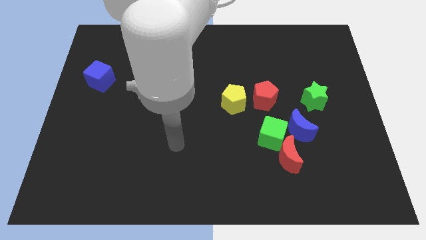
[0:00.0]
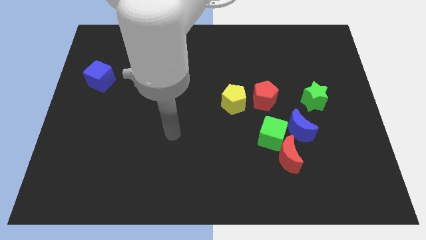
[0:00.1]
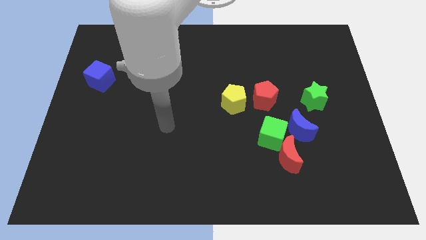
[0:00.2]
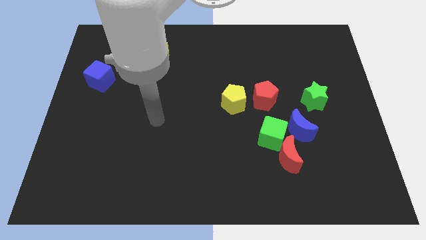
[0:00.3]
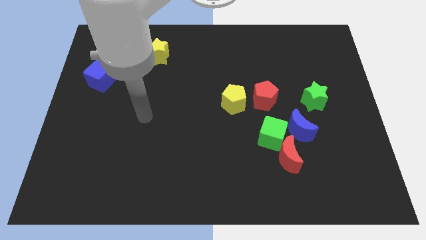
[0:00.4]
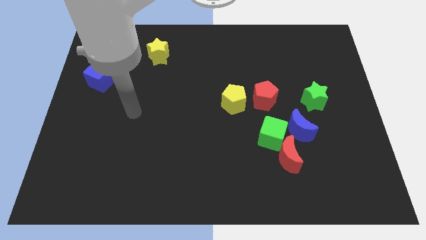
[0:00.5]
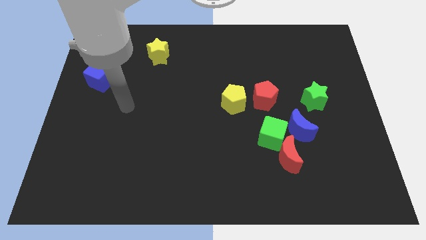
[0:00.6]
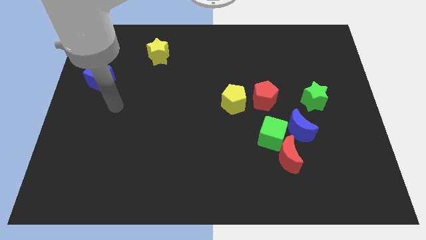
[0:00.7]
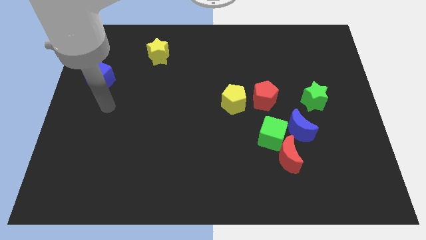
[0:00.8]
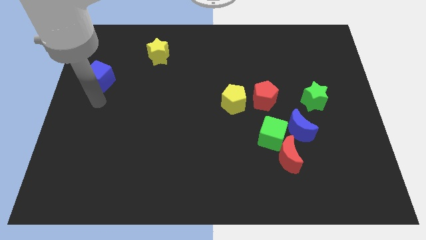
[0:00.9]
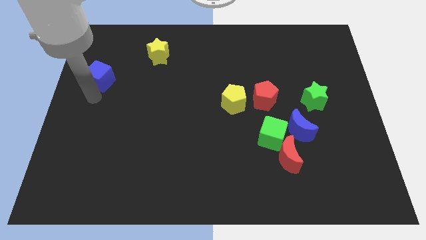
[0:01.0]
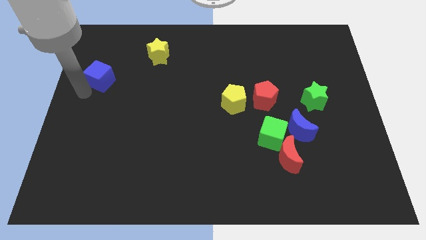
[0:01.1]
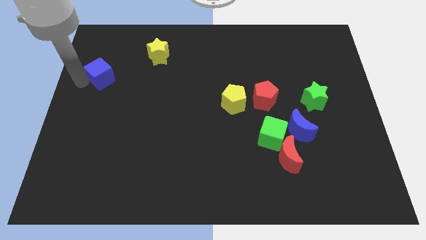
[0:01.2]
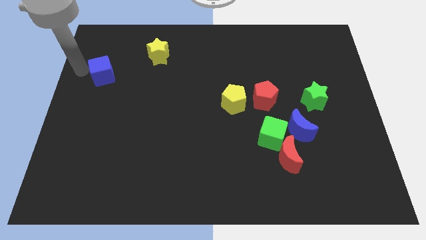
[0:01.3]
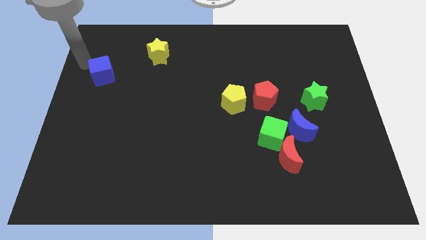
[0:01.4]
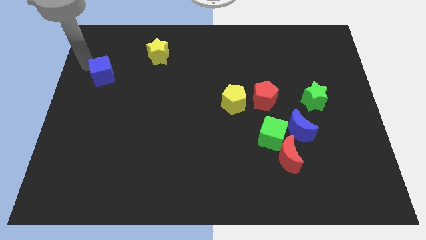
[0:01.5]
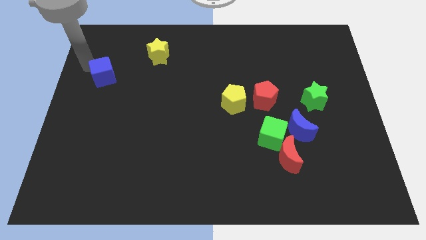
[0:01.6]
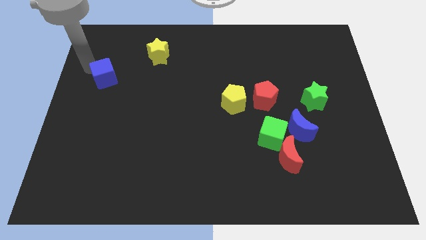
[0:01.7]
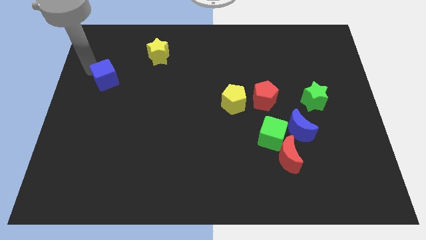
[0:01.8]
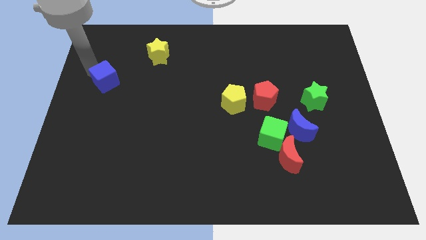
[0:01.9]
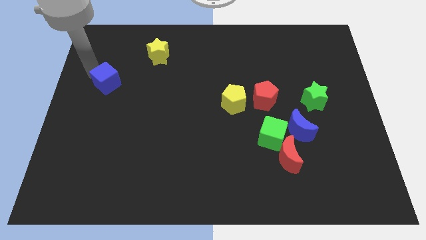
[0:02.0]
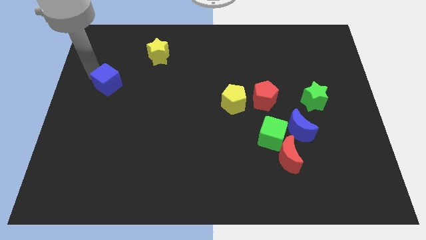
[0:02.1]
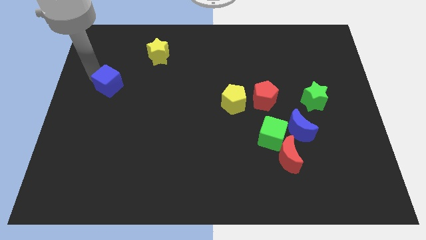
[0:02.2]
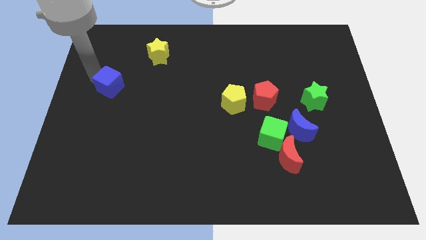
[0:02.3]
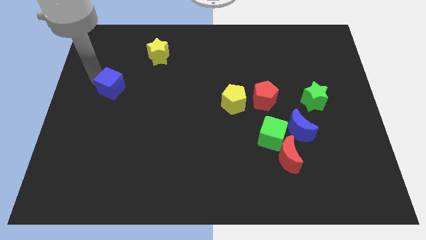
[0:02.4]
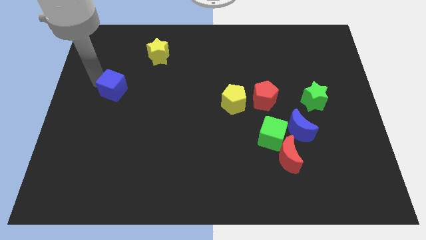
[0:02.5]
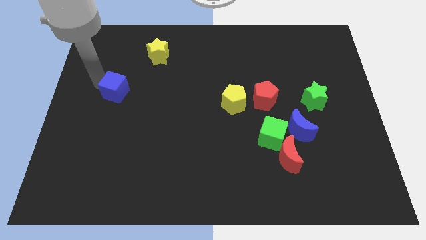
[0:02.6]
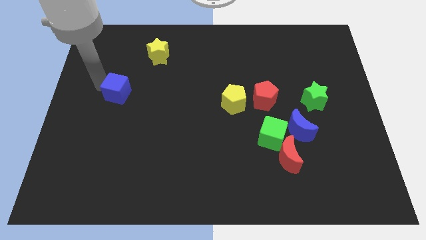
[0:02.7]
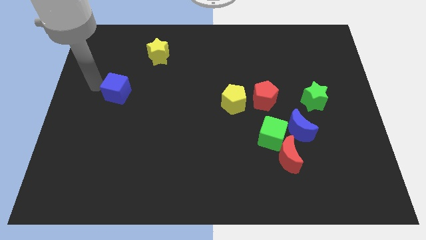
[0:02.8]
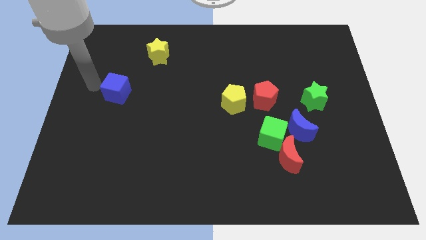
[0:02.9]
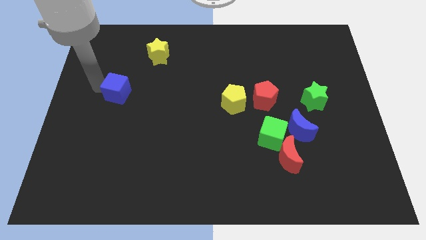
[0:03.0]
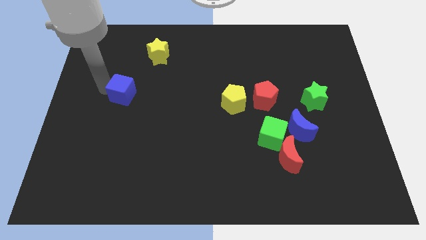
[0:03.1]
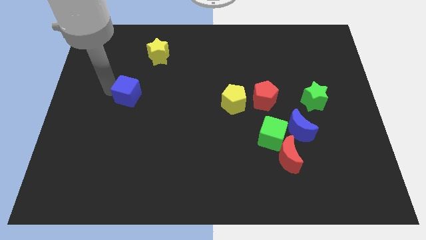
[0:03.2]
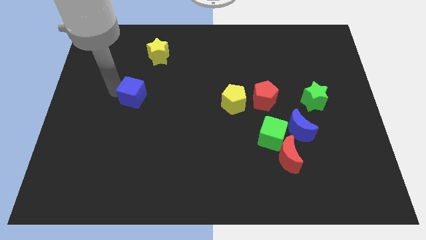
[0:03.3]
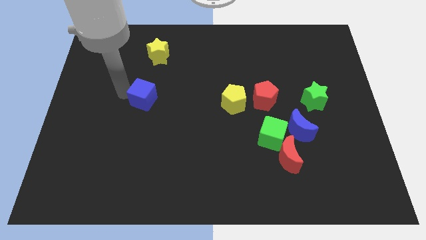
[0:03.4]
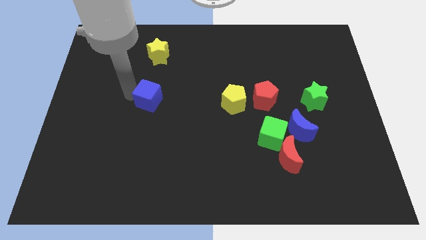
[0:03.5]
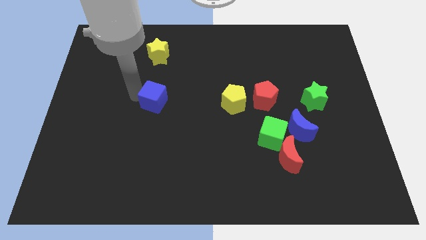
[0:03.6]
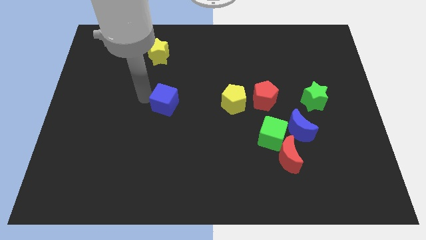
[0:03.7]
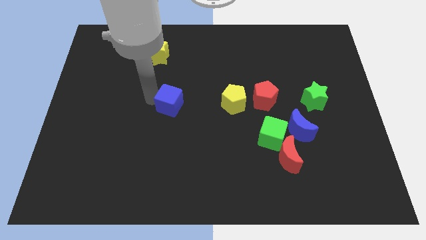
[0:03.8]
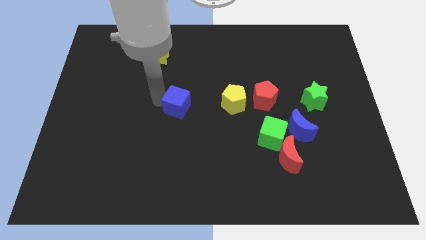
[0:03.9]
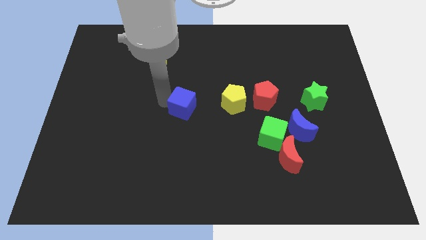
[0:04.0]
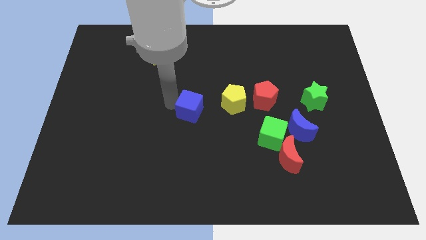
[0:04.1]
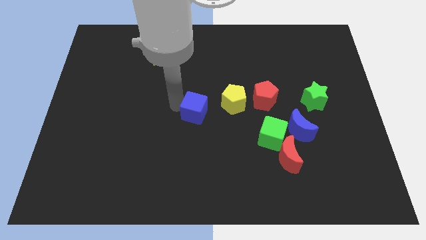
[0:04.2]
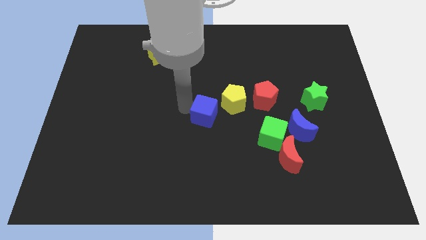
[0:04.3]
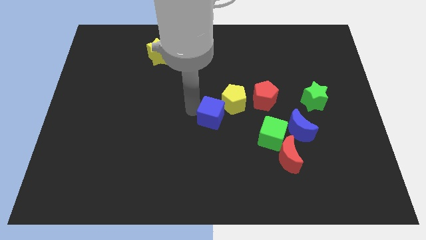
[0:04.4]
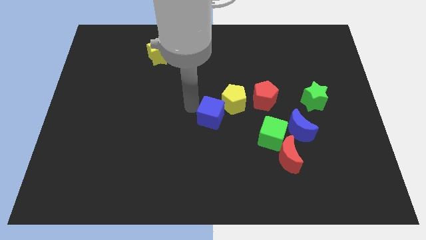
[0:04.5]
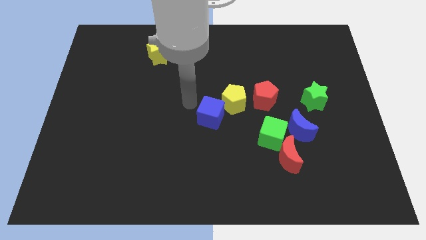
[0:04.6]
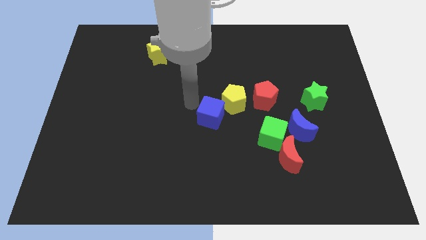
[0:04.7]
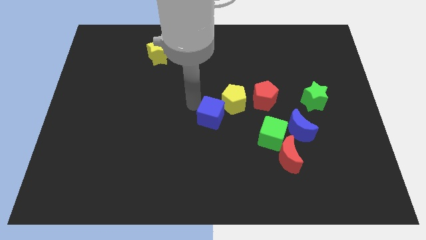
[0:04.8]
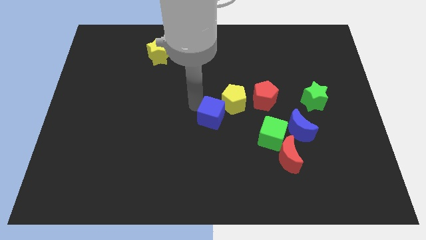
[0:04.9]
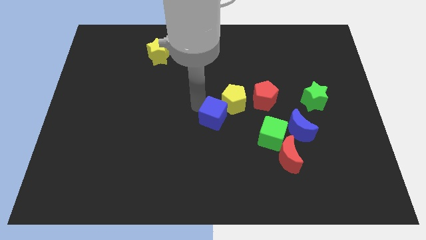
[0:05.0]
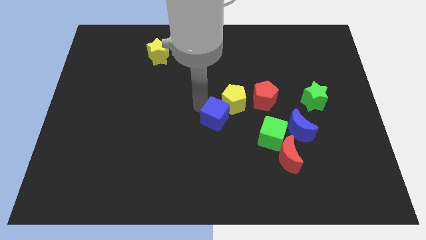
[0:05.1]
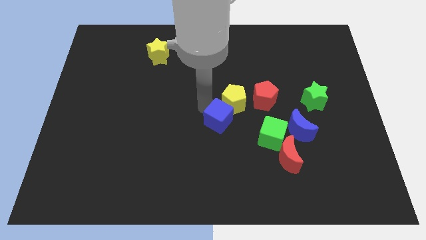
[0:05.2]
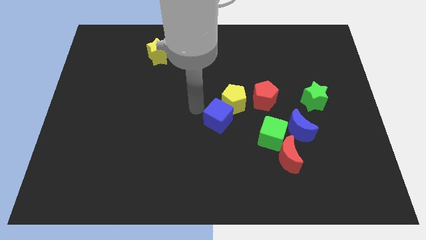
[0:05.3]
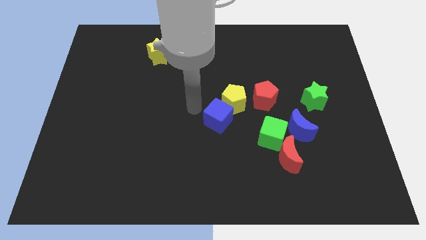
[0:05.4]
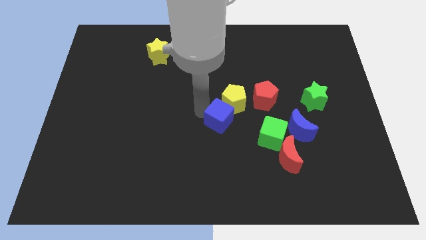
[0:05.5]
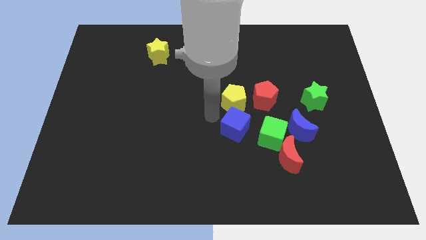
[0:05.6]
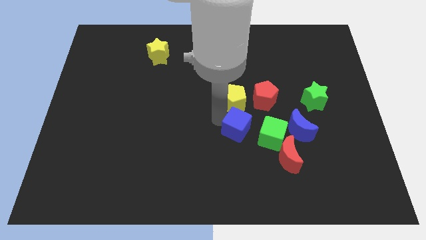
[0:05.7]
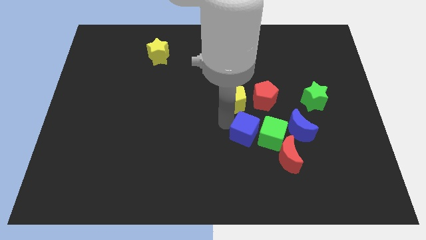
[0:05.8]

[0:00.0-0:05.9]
push the blue cube to the top left of the red moon

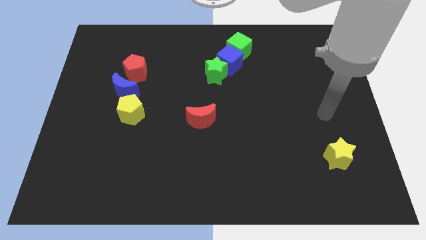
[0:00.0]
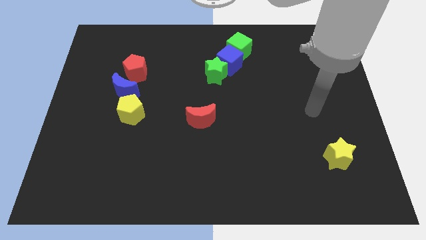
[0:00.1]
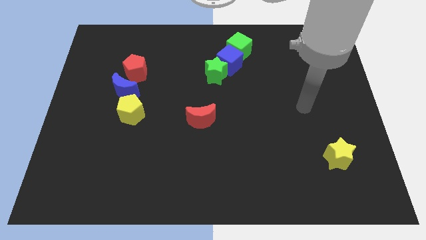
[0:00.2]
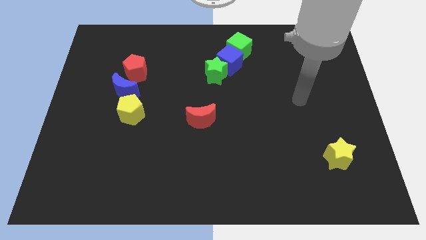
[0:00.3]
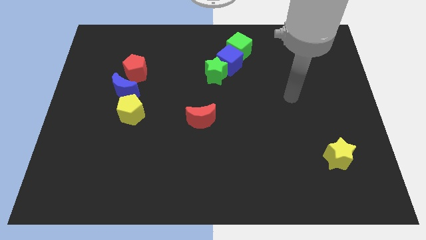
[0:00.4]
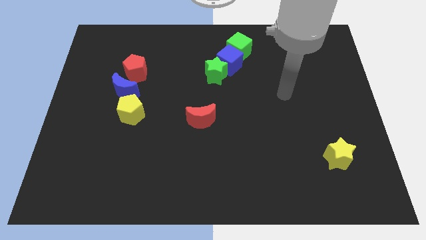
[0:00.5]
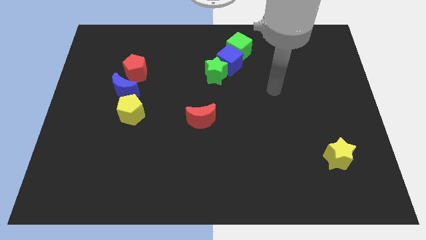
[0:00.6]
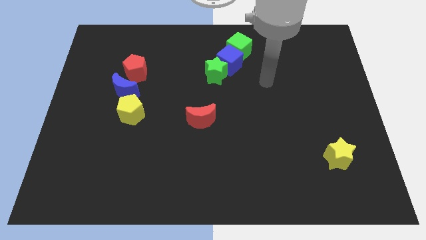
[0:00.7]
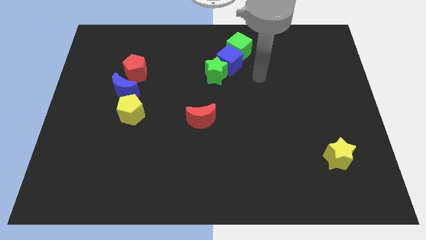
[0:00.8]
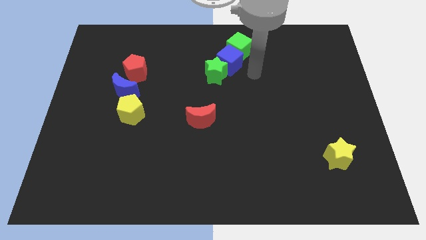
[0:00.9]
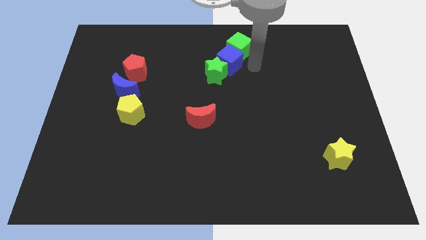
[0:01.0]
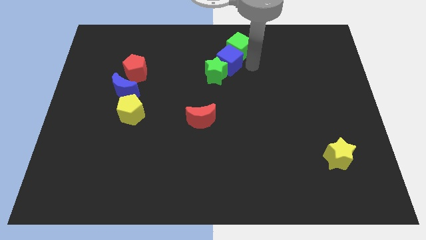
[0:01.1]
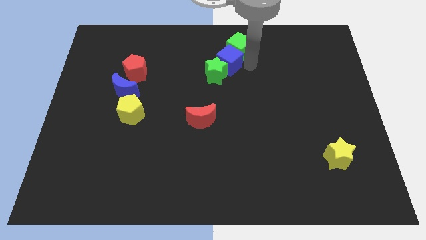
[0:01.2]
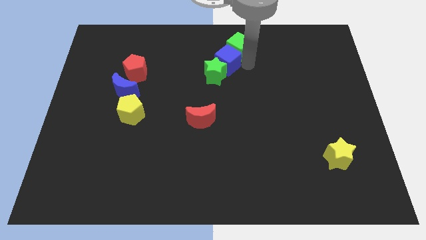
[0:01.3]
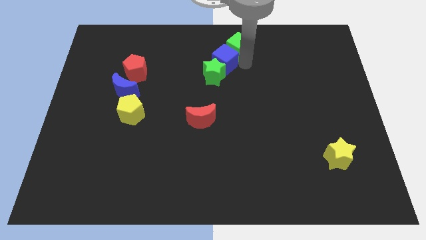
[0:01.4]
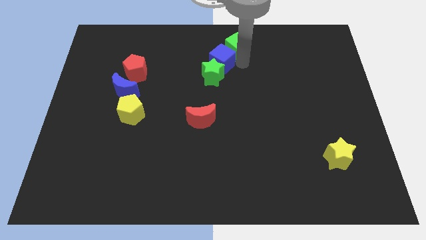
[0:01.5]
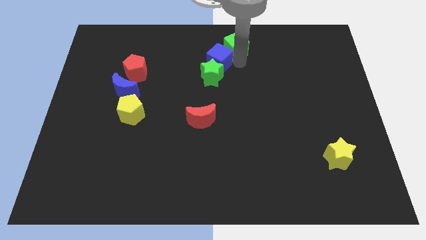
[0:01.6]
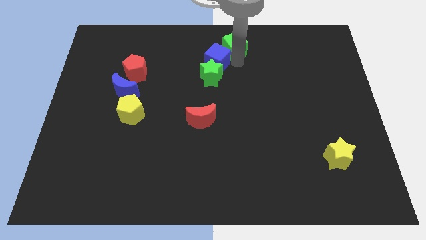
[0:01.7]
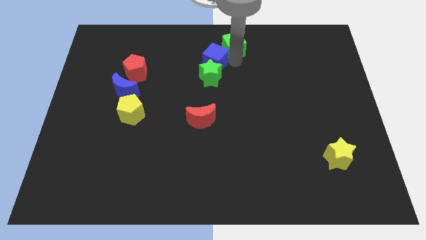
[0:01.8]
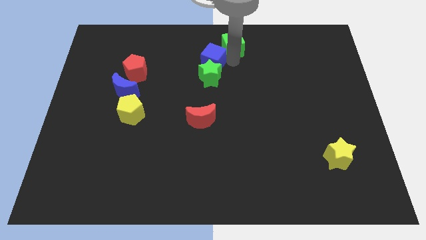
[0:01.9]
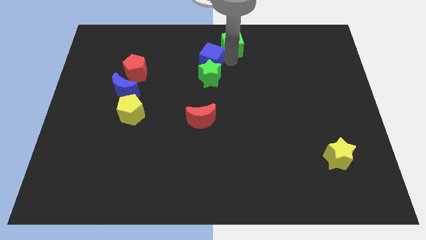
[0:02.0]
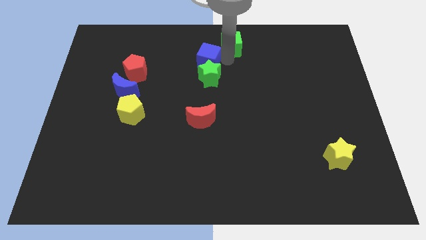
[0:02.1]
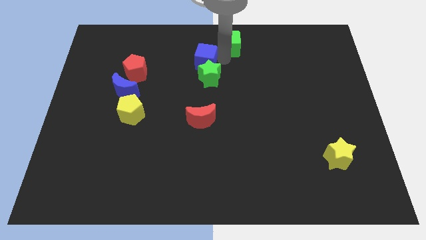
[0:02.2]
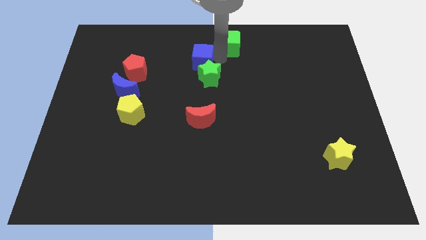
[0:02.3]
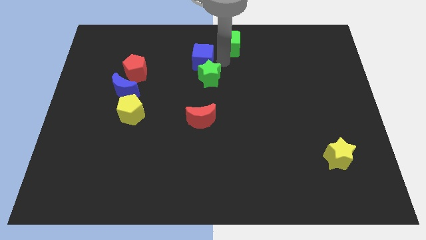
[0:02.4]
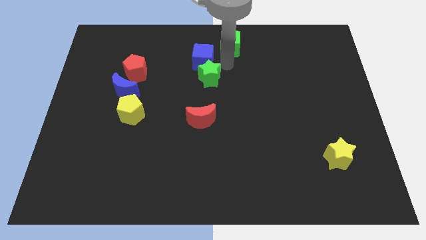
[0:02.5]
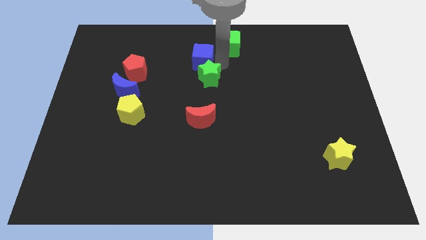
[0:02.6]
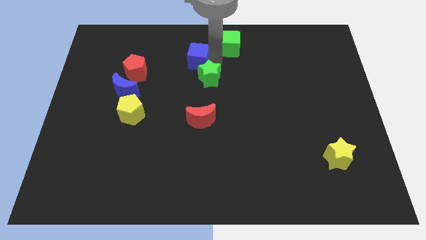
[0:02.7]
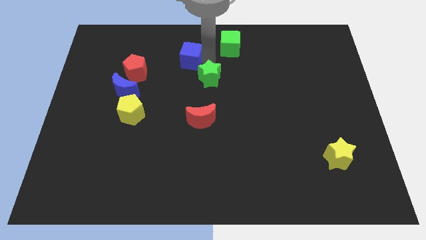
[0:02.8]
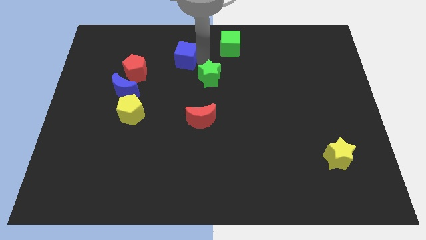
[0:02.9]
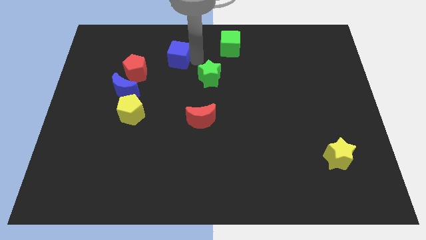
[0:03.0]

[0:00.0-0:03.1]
slide the blue cube to the top right of the red pentagon
